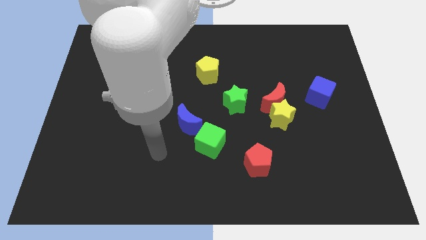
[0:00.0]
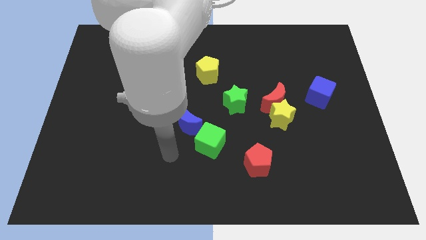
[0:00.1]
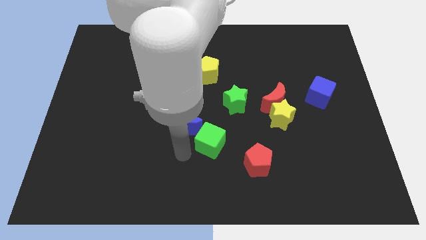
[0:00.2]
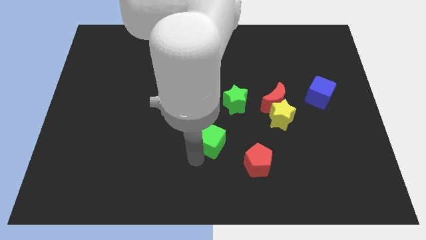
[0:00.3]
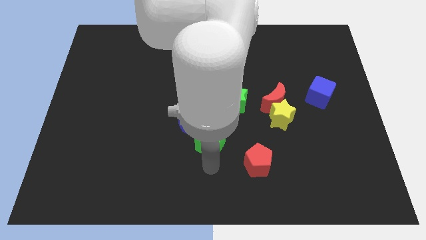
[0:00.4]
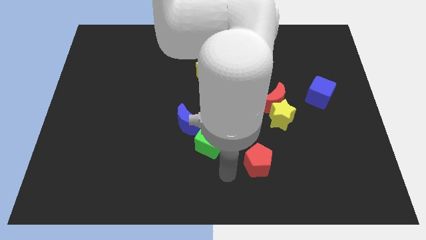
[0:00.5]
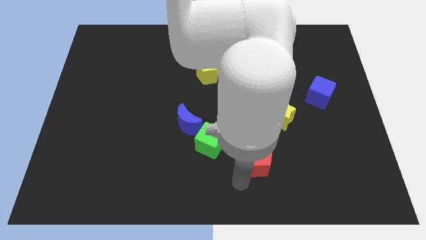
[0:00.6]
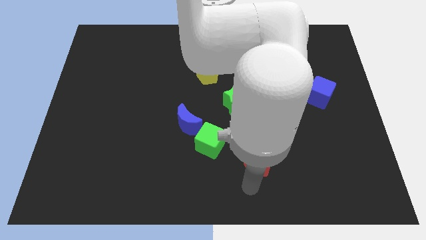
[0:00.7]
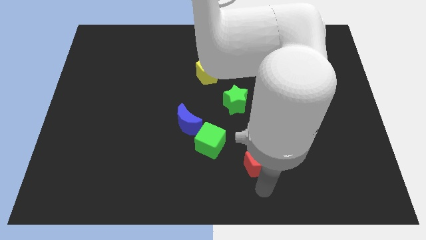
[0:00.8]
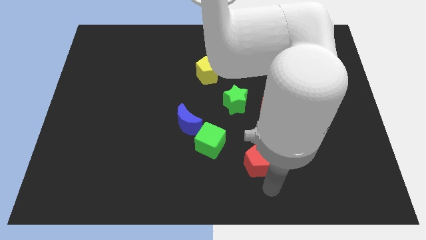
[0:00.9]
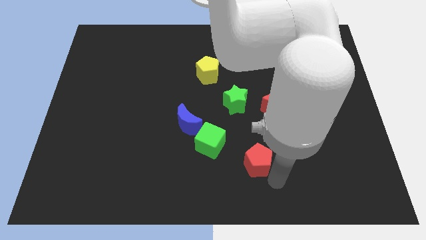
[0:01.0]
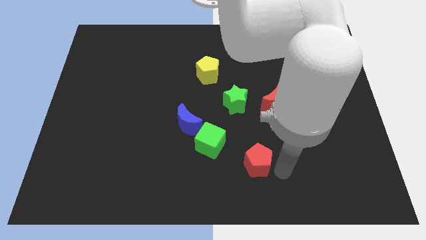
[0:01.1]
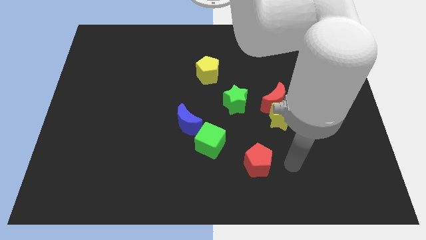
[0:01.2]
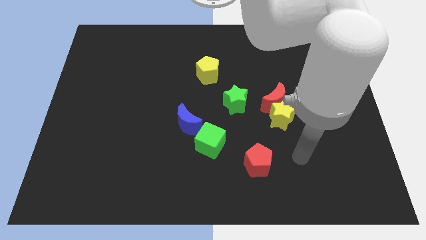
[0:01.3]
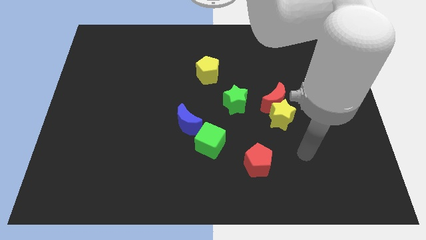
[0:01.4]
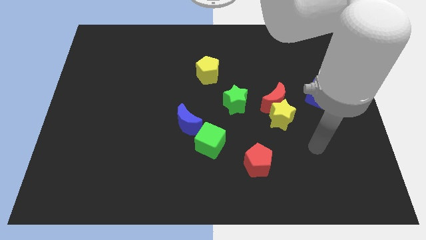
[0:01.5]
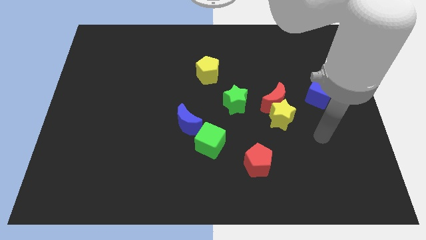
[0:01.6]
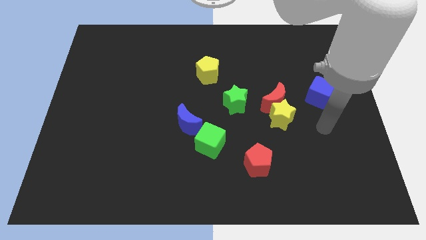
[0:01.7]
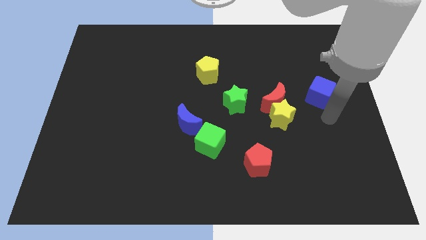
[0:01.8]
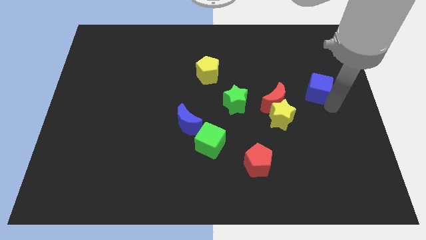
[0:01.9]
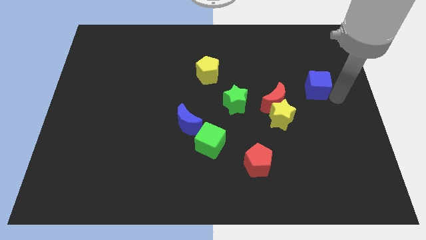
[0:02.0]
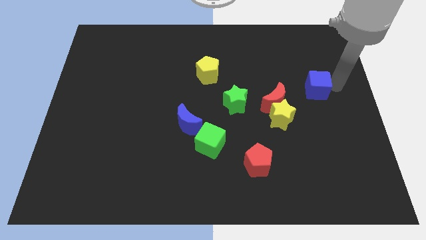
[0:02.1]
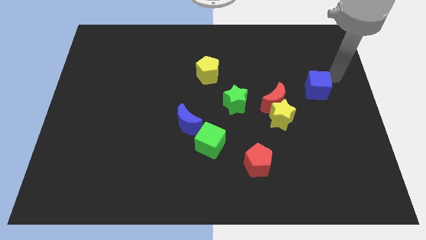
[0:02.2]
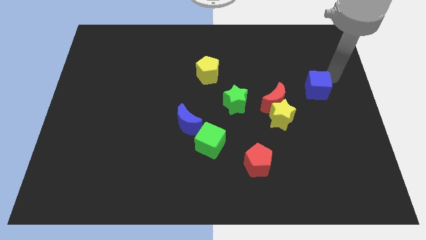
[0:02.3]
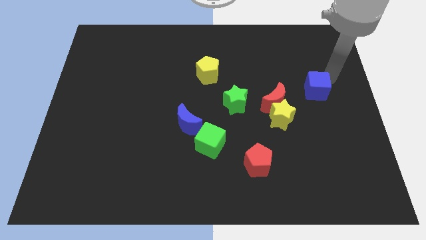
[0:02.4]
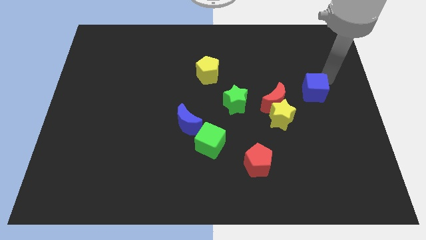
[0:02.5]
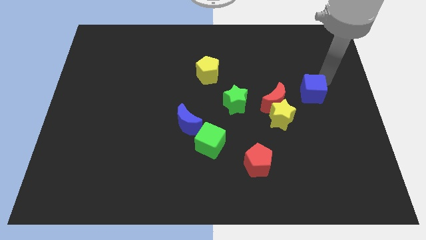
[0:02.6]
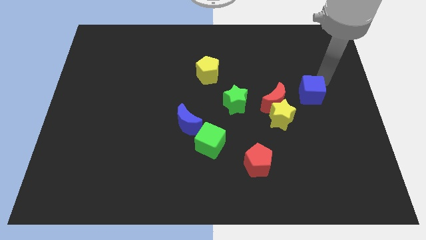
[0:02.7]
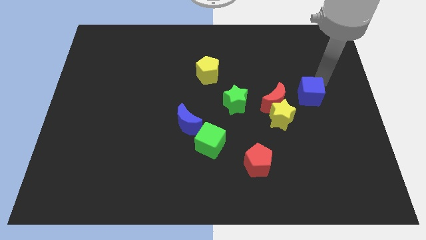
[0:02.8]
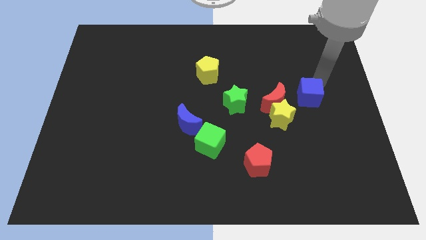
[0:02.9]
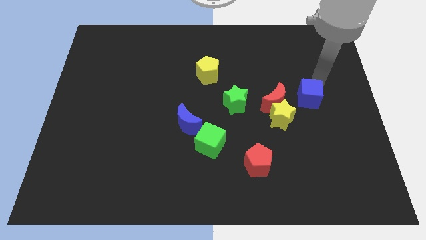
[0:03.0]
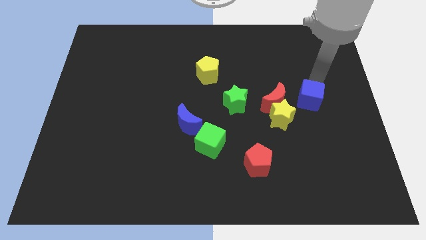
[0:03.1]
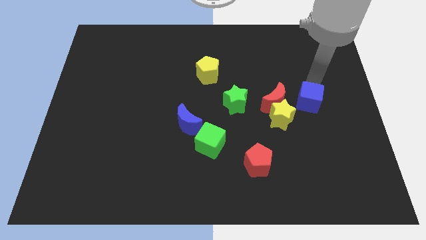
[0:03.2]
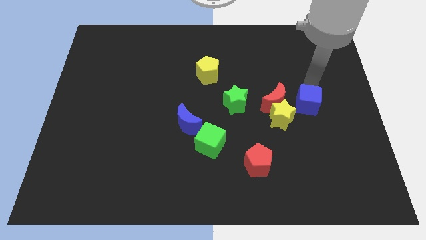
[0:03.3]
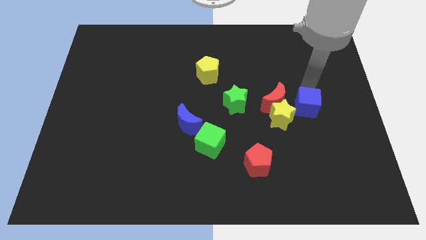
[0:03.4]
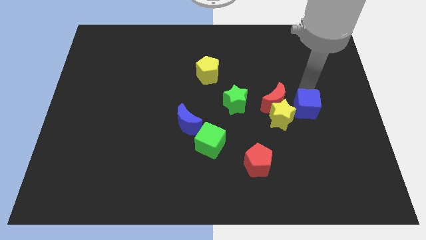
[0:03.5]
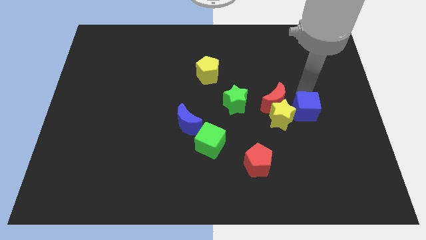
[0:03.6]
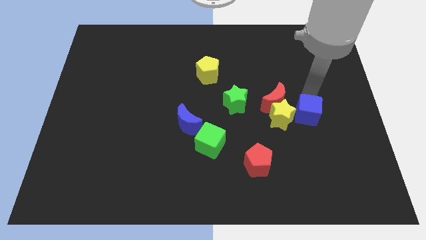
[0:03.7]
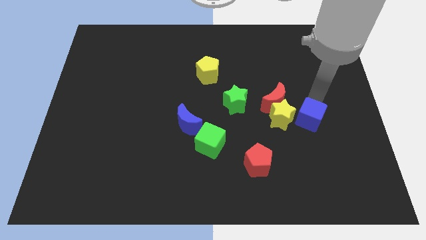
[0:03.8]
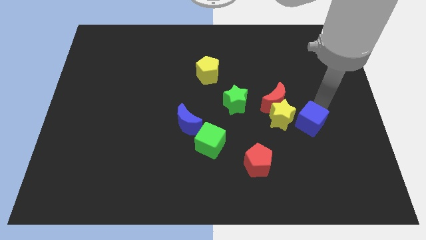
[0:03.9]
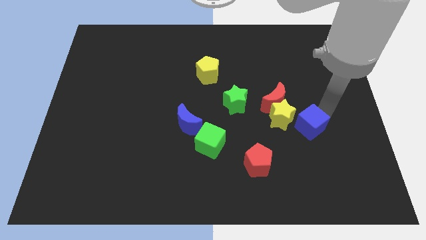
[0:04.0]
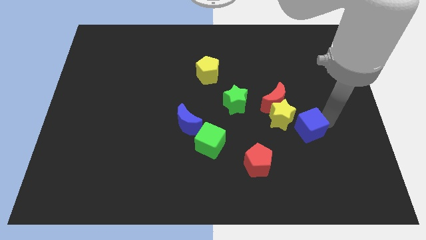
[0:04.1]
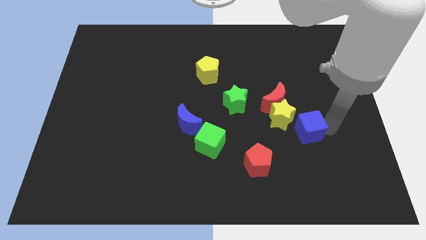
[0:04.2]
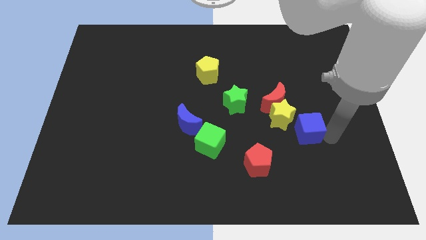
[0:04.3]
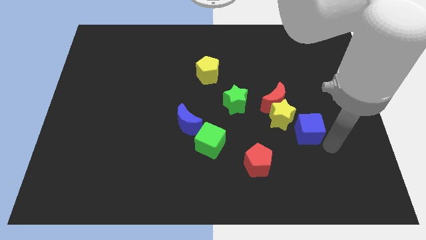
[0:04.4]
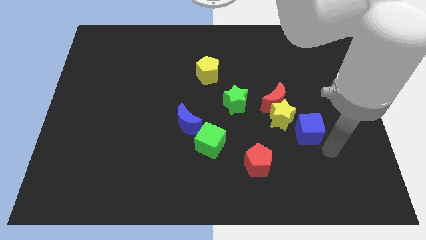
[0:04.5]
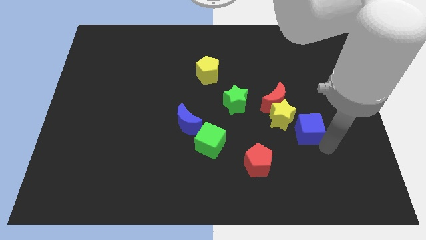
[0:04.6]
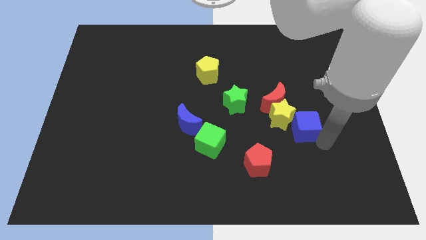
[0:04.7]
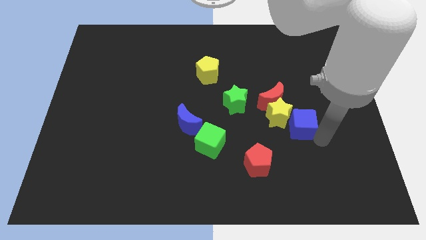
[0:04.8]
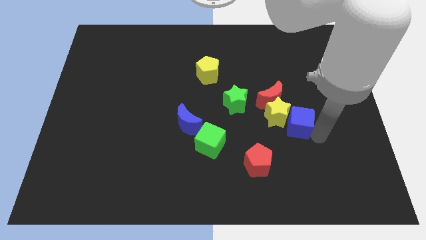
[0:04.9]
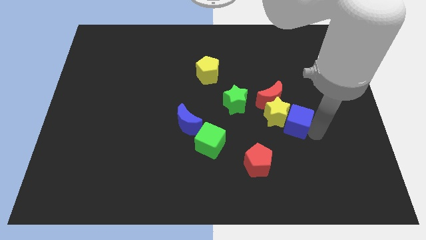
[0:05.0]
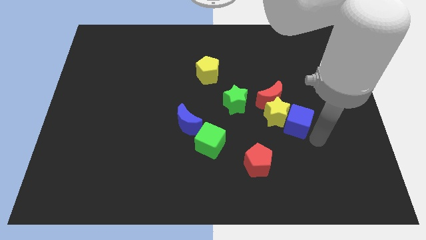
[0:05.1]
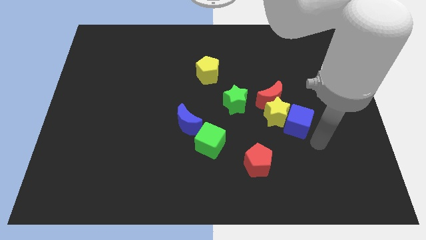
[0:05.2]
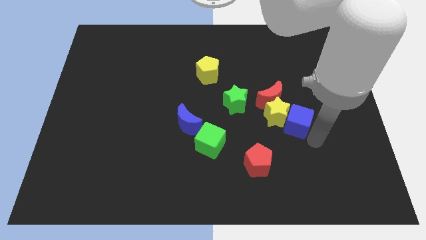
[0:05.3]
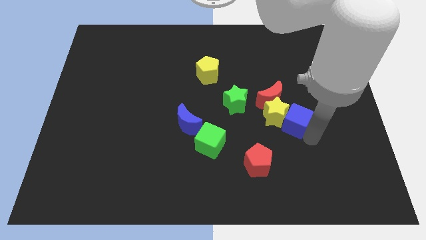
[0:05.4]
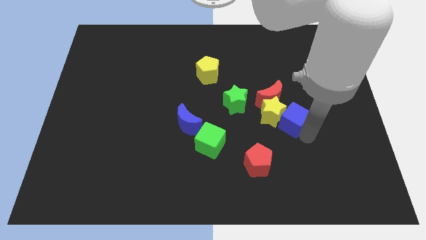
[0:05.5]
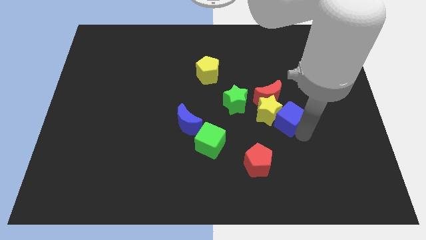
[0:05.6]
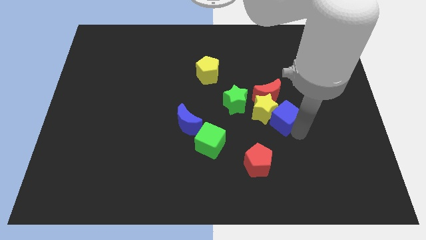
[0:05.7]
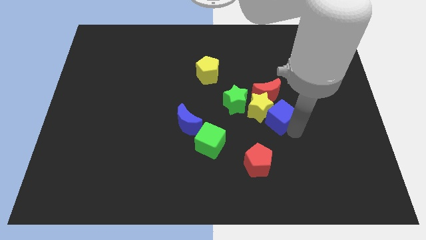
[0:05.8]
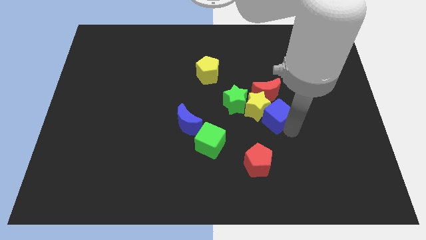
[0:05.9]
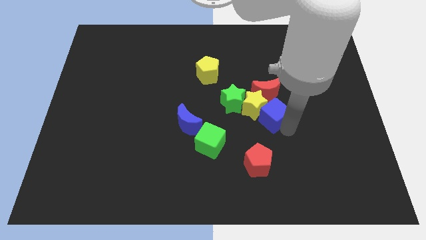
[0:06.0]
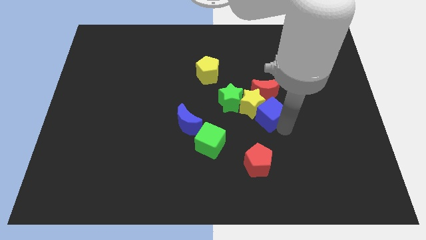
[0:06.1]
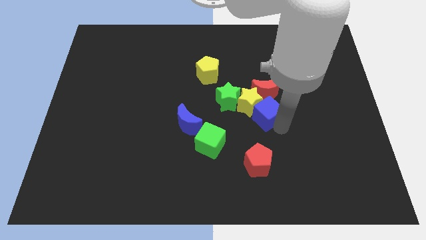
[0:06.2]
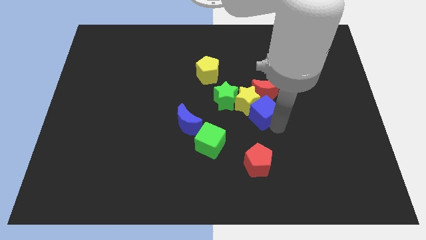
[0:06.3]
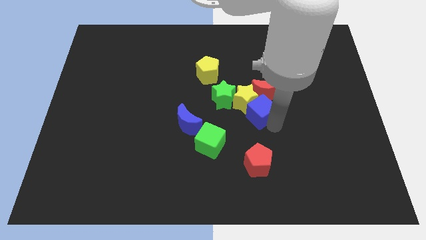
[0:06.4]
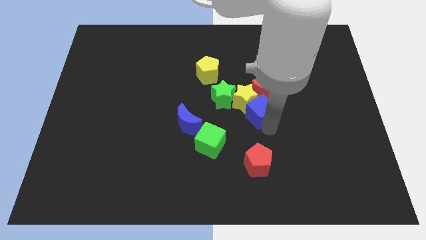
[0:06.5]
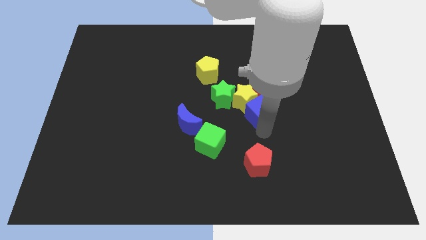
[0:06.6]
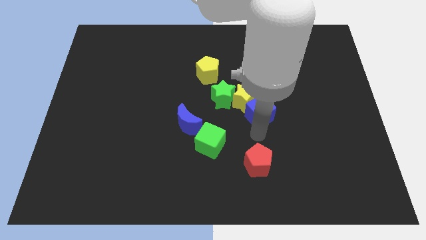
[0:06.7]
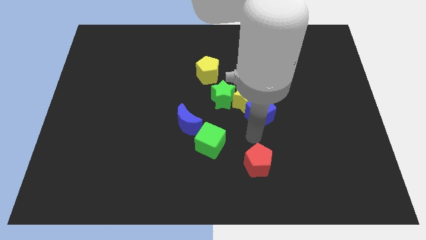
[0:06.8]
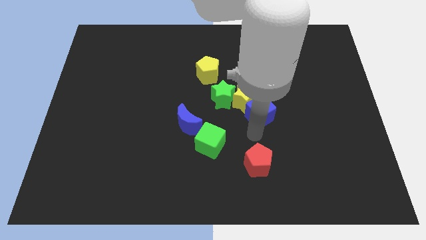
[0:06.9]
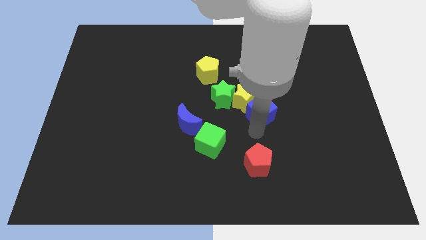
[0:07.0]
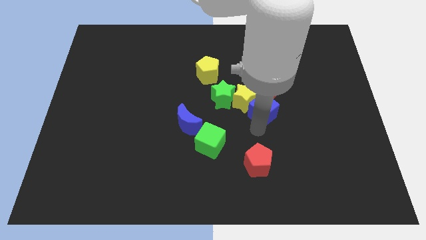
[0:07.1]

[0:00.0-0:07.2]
slide the blue cube to the red moon

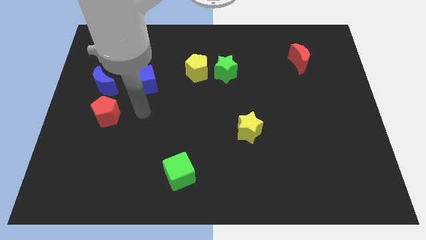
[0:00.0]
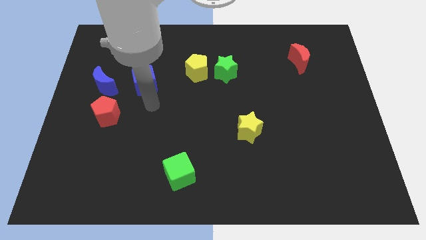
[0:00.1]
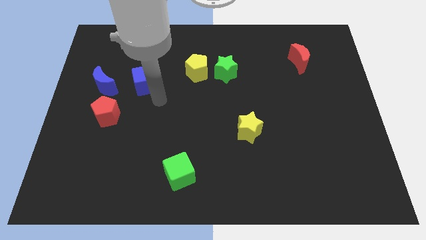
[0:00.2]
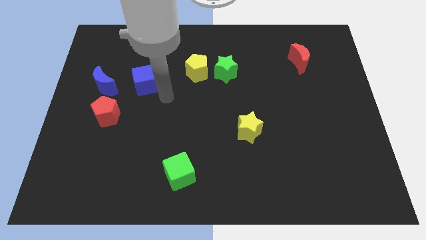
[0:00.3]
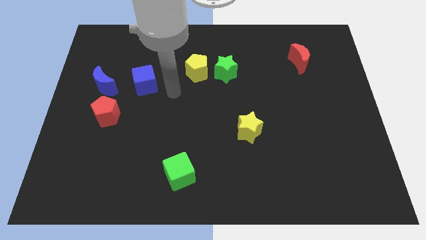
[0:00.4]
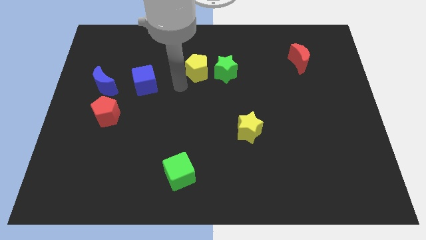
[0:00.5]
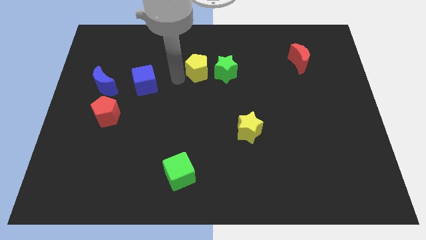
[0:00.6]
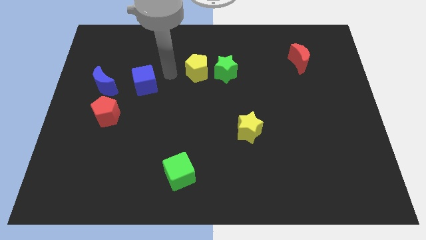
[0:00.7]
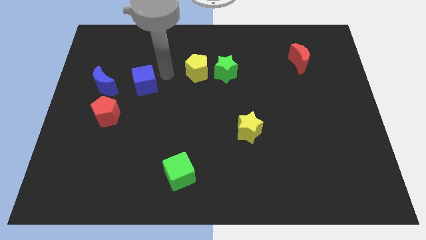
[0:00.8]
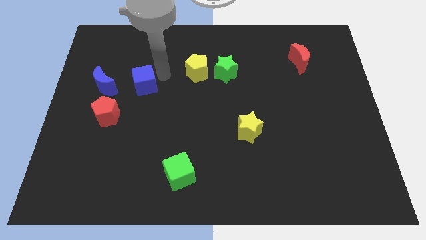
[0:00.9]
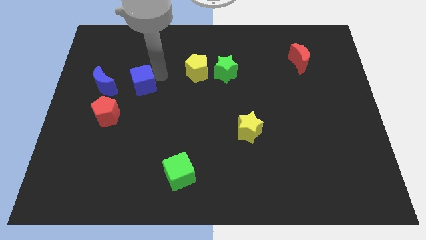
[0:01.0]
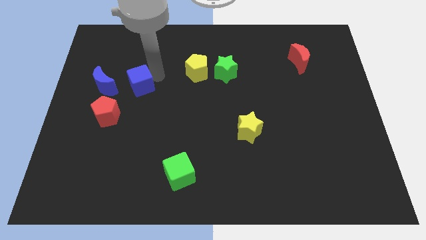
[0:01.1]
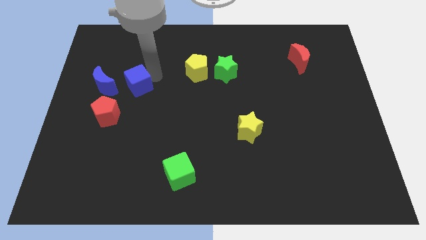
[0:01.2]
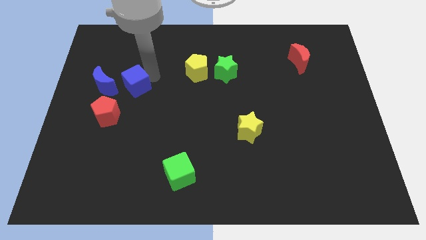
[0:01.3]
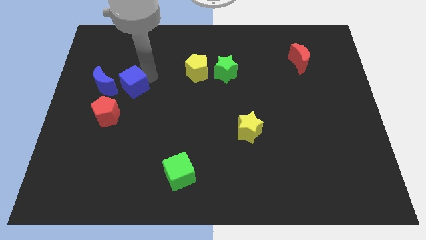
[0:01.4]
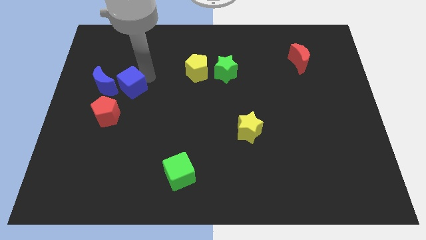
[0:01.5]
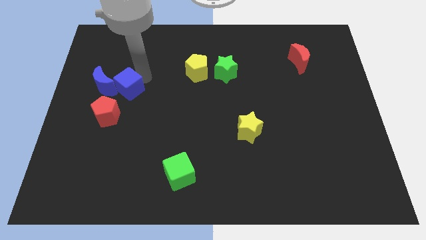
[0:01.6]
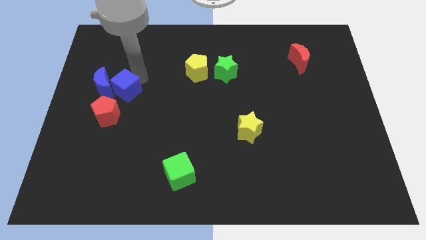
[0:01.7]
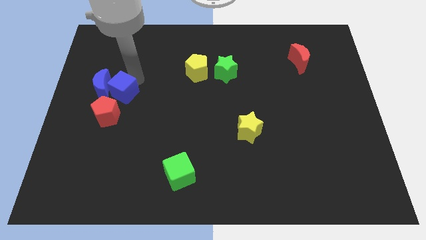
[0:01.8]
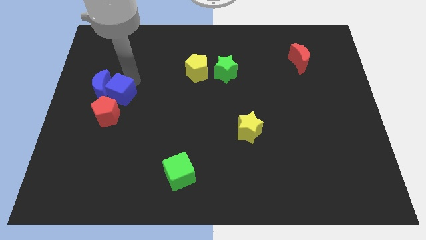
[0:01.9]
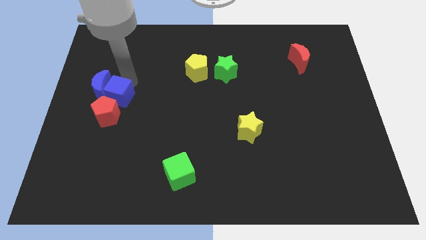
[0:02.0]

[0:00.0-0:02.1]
put the blue cube next to the red pentagon
